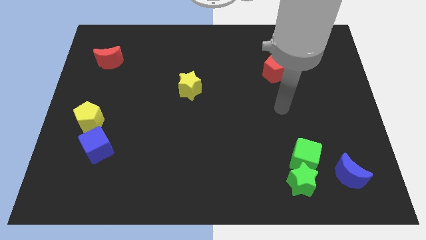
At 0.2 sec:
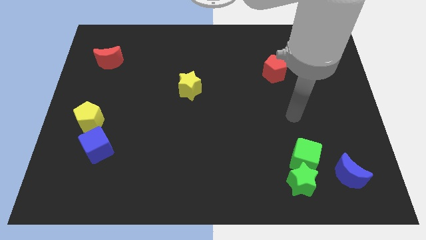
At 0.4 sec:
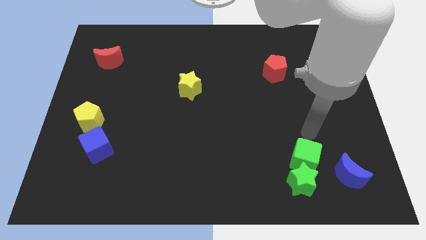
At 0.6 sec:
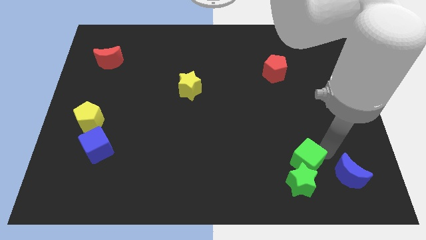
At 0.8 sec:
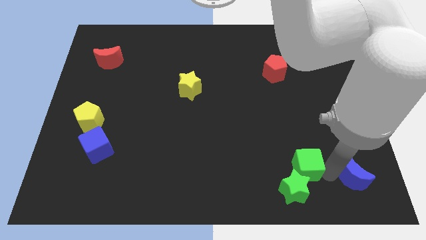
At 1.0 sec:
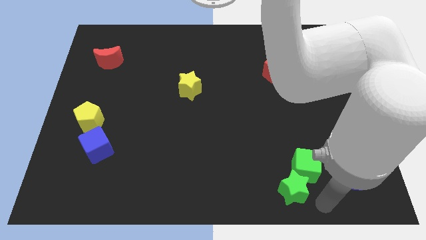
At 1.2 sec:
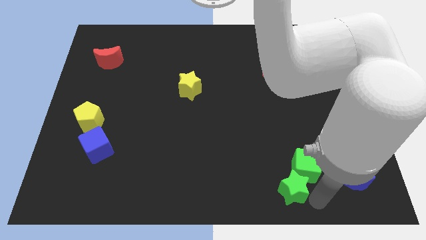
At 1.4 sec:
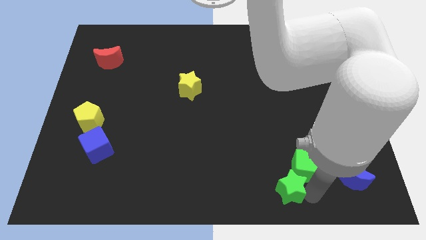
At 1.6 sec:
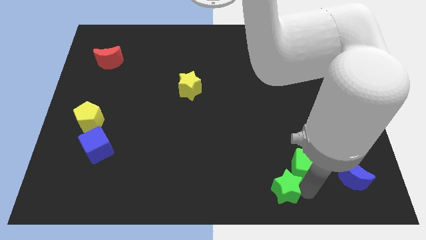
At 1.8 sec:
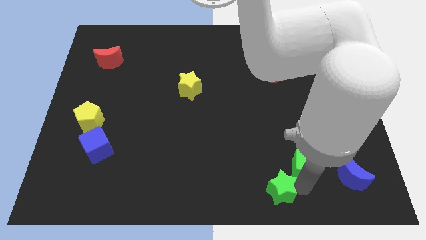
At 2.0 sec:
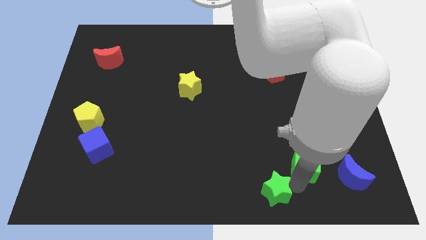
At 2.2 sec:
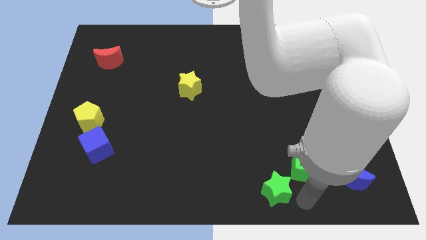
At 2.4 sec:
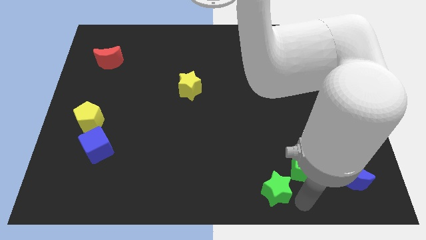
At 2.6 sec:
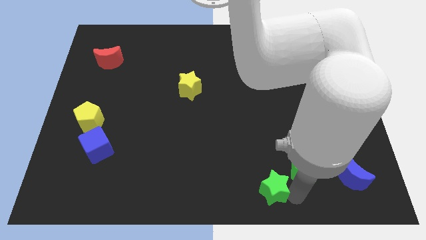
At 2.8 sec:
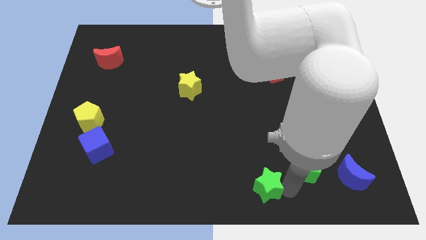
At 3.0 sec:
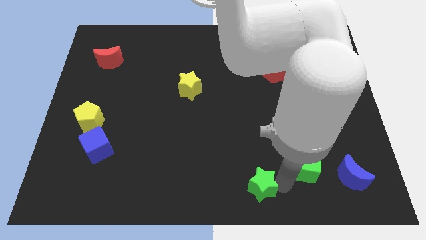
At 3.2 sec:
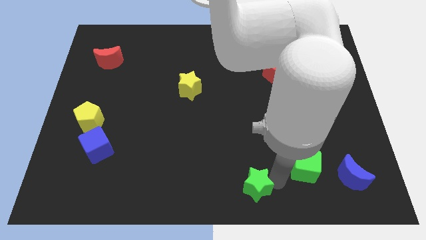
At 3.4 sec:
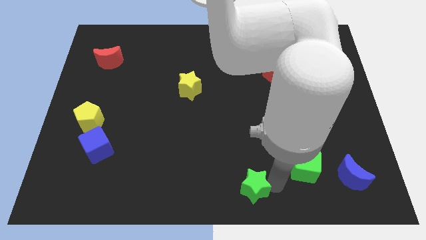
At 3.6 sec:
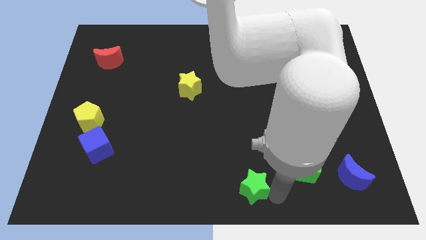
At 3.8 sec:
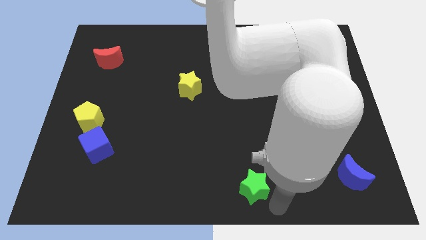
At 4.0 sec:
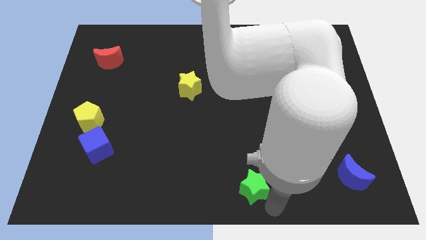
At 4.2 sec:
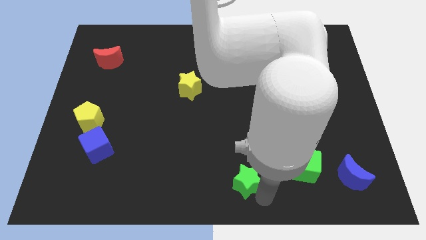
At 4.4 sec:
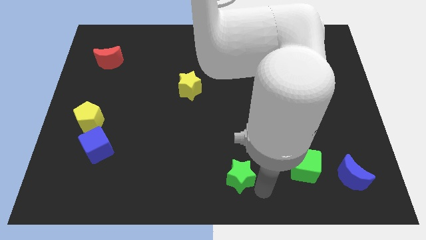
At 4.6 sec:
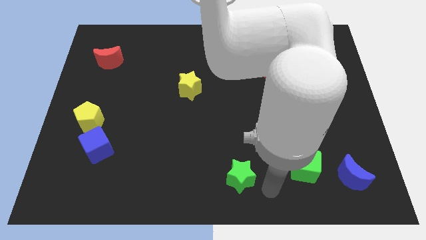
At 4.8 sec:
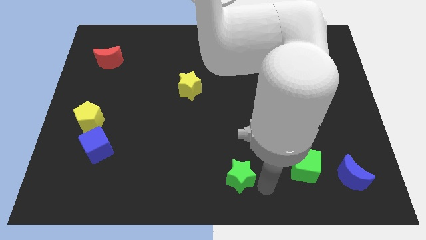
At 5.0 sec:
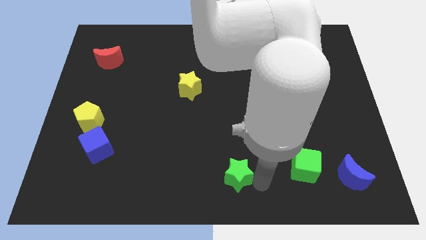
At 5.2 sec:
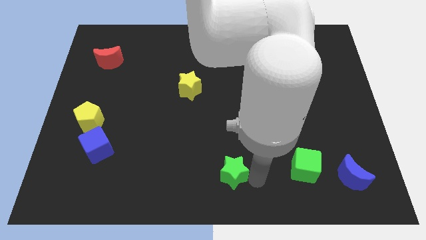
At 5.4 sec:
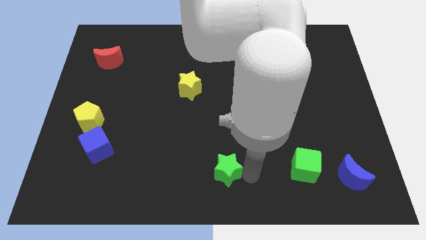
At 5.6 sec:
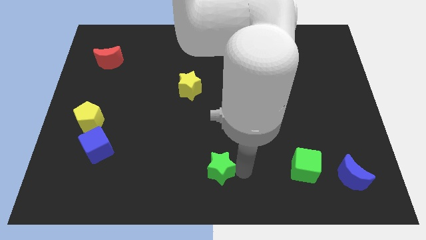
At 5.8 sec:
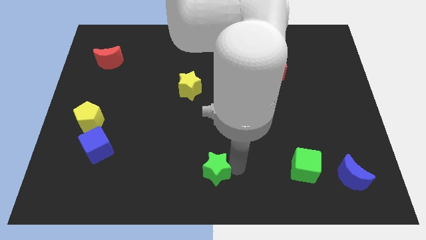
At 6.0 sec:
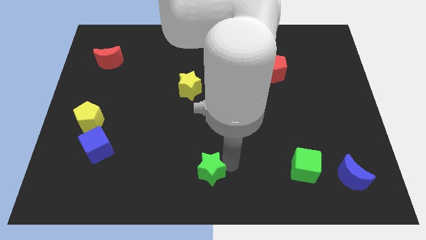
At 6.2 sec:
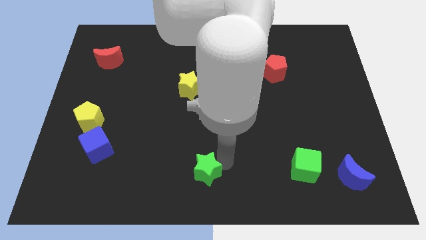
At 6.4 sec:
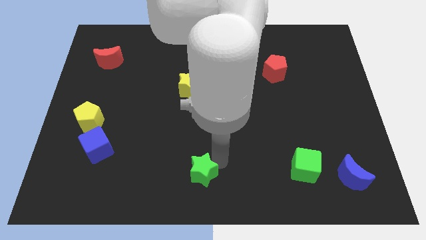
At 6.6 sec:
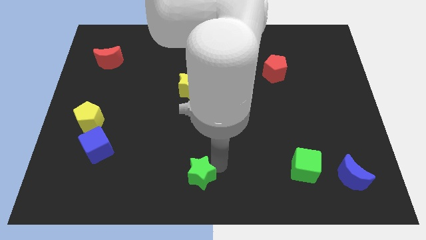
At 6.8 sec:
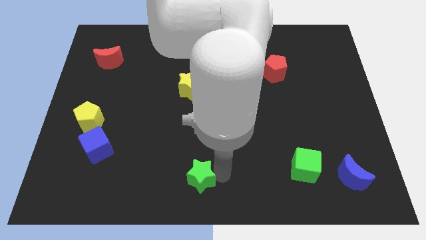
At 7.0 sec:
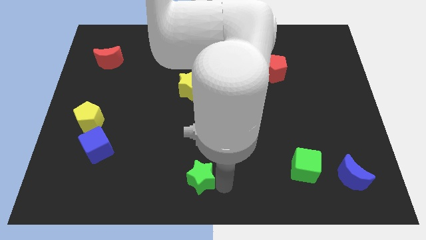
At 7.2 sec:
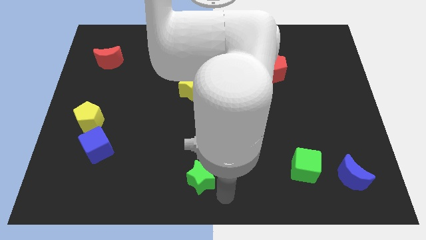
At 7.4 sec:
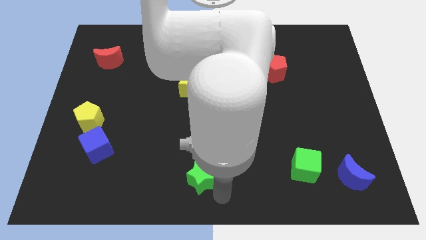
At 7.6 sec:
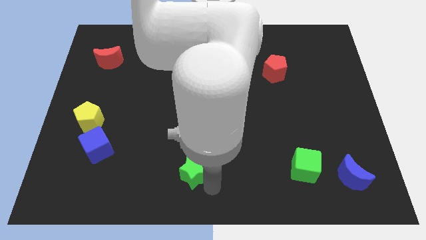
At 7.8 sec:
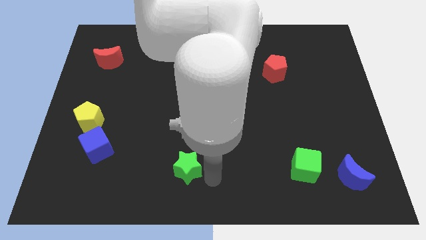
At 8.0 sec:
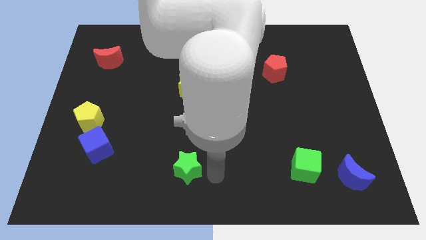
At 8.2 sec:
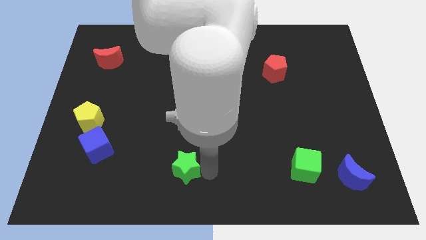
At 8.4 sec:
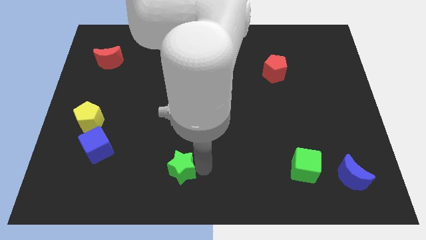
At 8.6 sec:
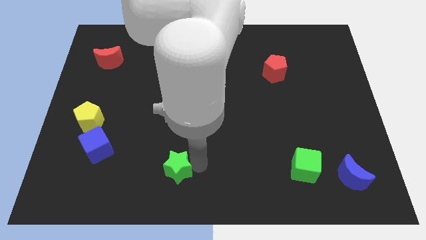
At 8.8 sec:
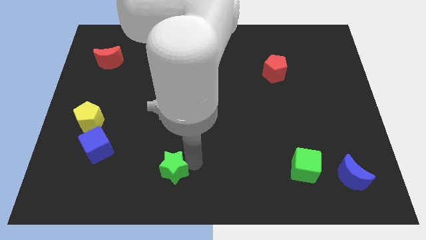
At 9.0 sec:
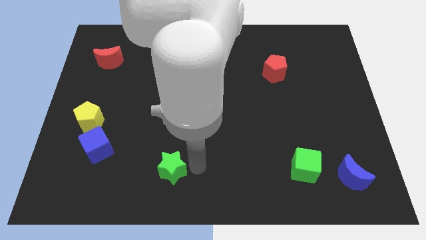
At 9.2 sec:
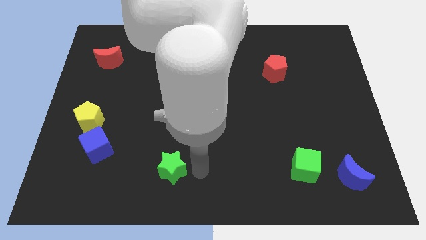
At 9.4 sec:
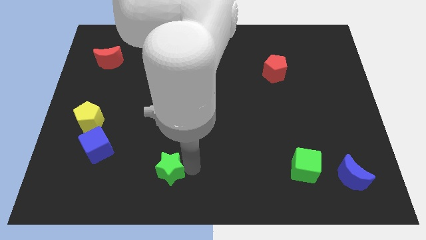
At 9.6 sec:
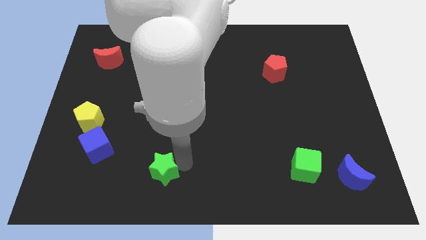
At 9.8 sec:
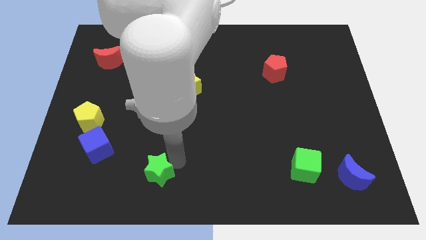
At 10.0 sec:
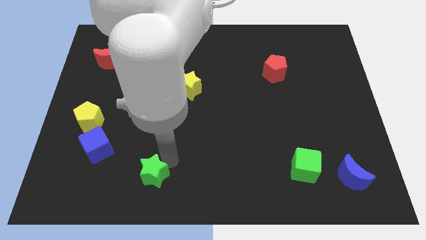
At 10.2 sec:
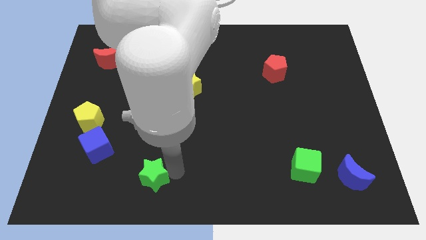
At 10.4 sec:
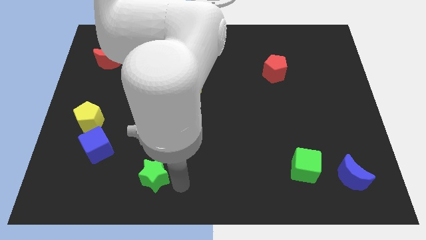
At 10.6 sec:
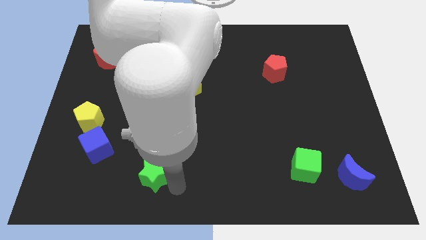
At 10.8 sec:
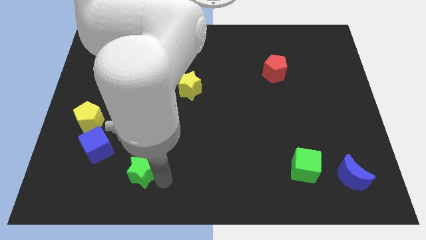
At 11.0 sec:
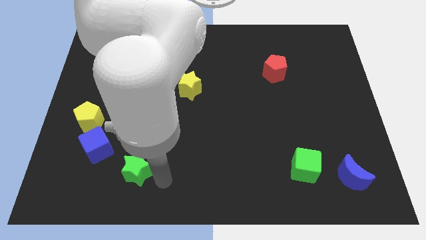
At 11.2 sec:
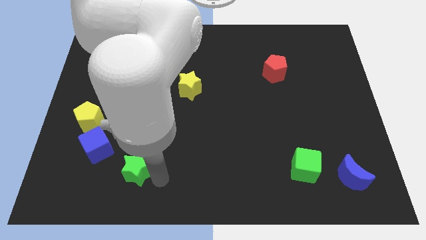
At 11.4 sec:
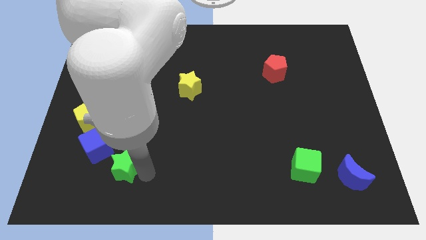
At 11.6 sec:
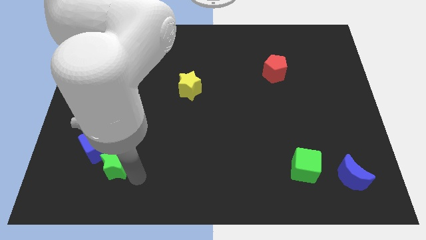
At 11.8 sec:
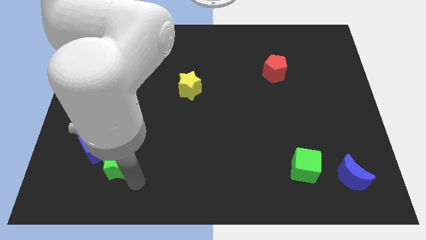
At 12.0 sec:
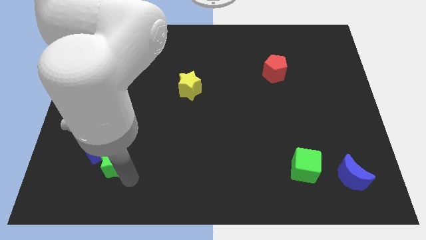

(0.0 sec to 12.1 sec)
slide the green star next to the blue cube

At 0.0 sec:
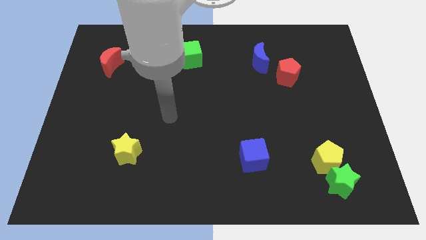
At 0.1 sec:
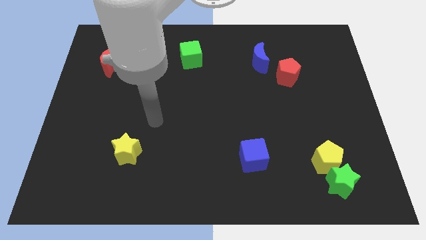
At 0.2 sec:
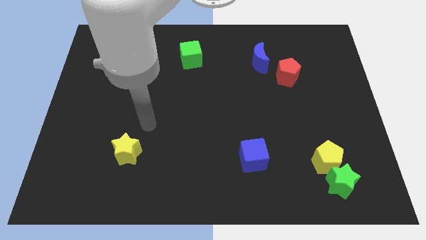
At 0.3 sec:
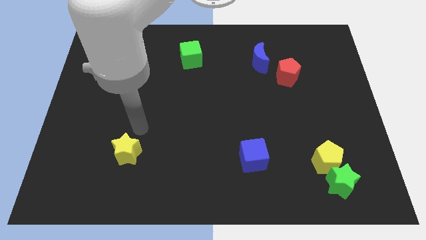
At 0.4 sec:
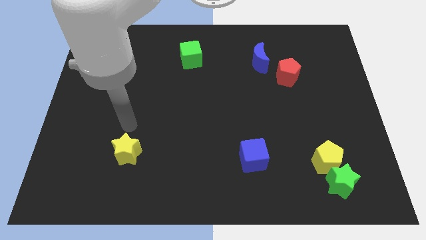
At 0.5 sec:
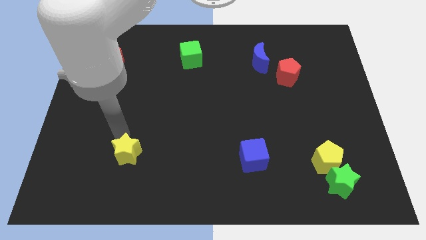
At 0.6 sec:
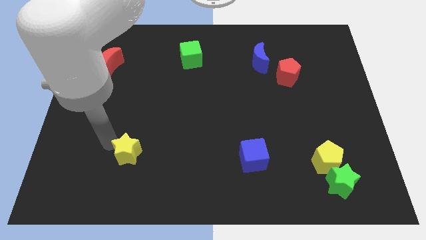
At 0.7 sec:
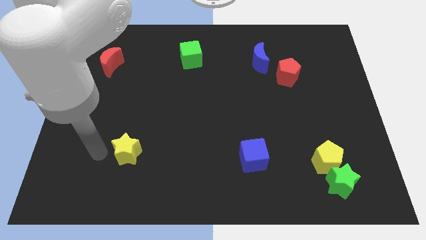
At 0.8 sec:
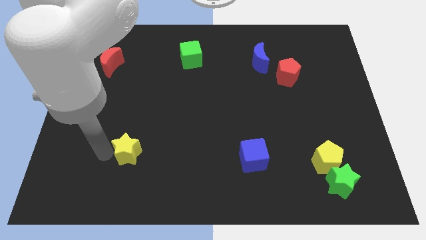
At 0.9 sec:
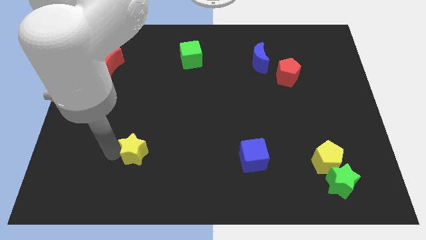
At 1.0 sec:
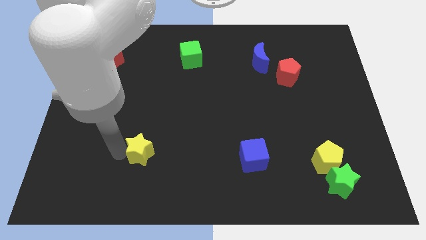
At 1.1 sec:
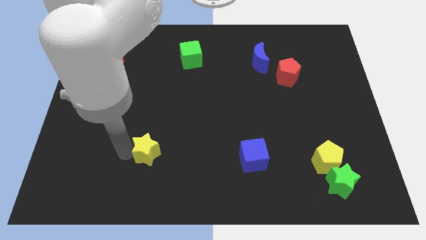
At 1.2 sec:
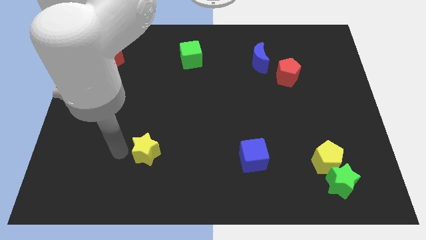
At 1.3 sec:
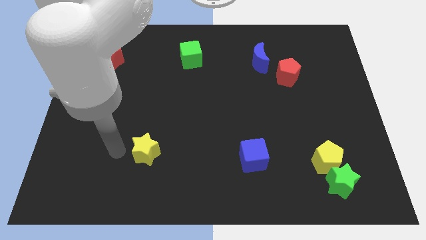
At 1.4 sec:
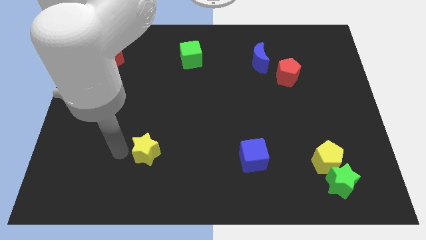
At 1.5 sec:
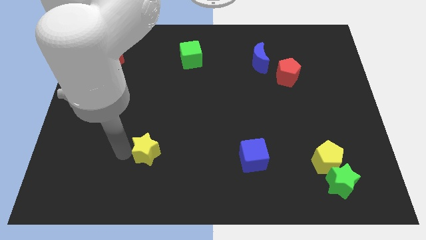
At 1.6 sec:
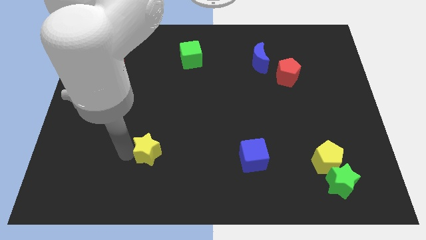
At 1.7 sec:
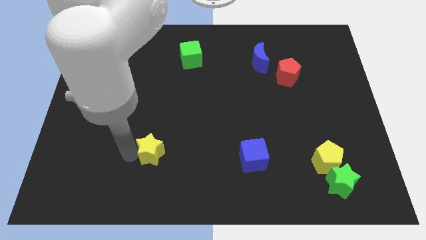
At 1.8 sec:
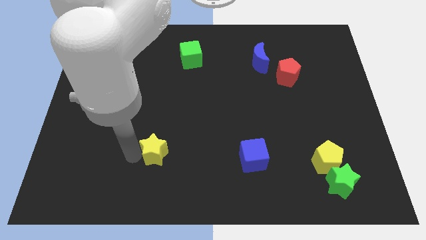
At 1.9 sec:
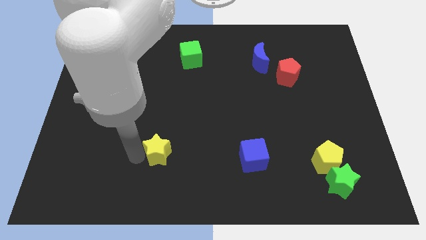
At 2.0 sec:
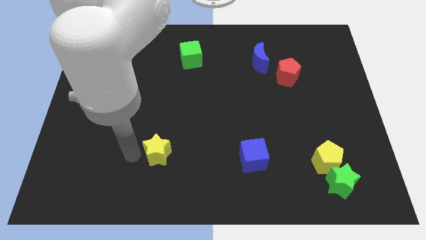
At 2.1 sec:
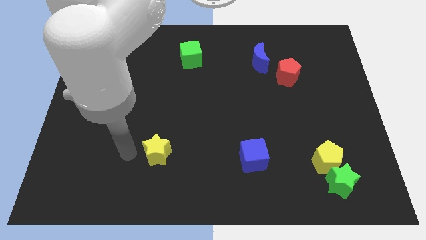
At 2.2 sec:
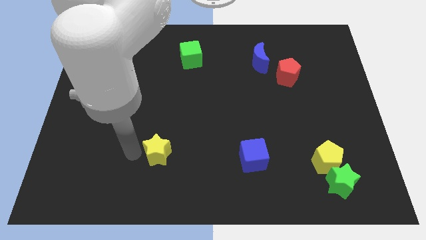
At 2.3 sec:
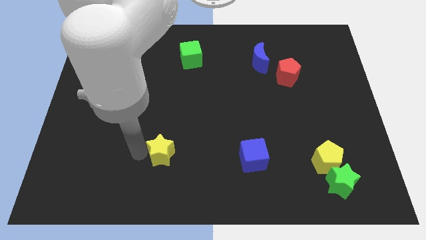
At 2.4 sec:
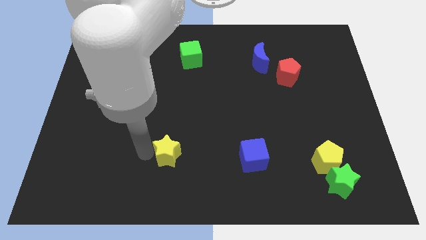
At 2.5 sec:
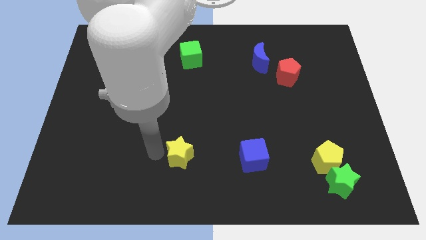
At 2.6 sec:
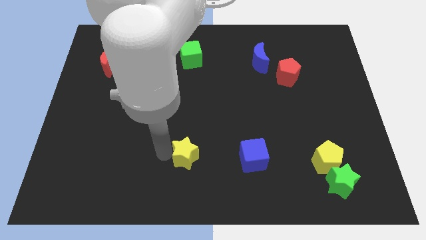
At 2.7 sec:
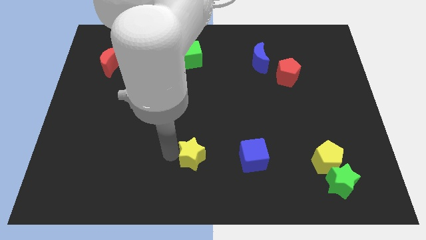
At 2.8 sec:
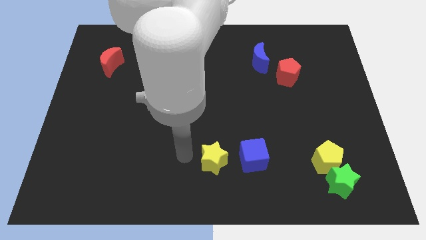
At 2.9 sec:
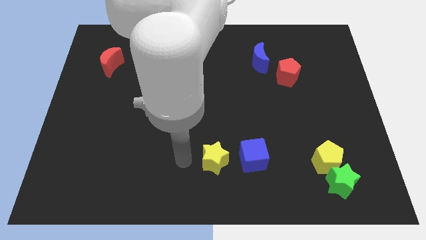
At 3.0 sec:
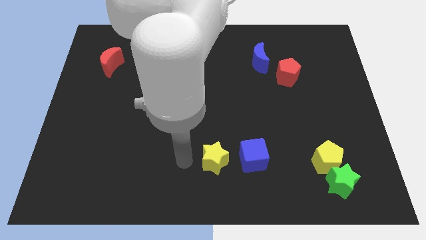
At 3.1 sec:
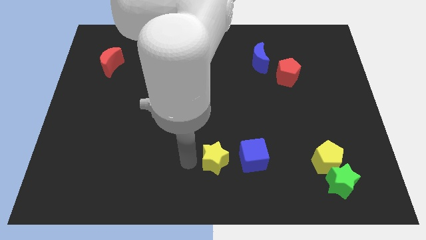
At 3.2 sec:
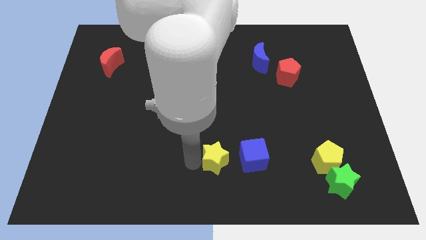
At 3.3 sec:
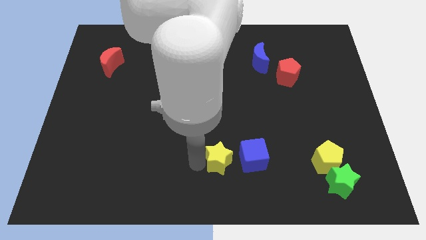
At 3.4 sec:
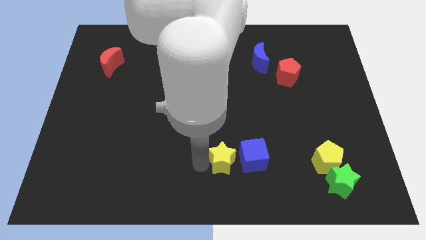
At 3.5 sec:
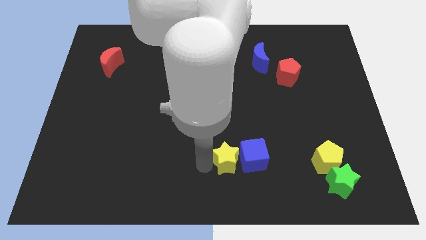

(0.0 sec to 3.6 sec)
move the yellow star towards the blue cube
